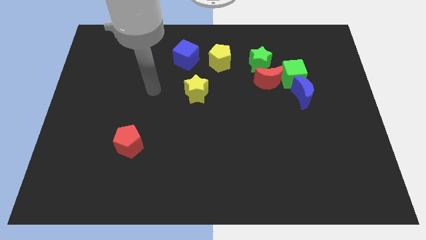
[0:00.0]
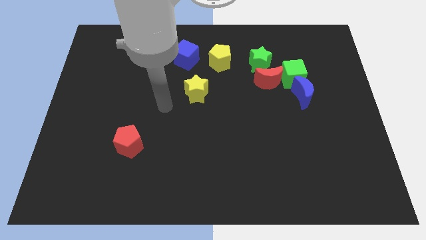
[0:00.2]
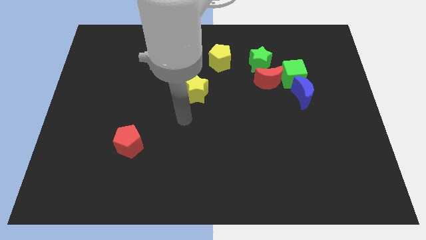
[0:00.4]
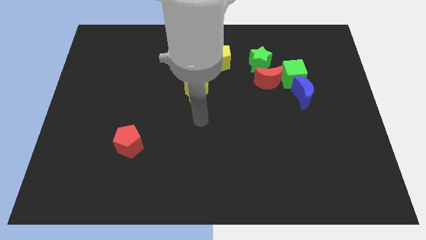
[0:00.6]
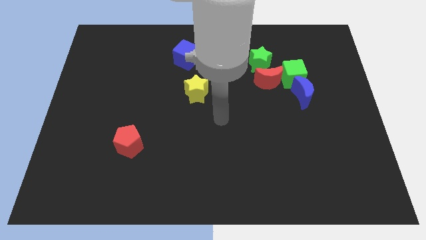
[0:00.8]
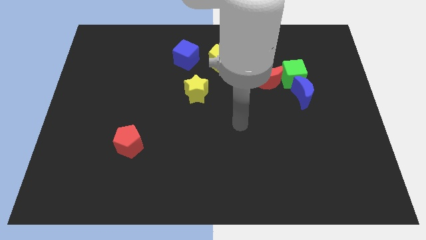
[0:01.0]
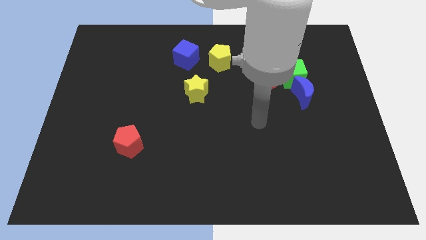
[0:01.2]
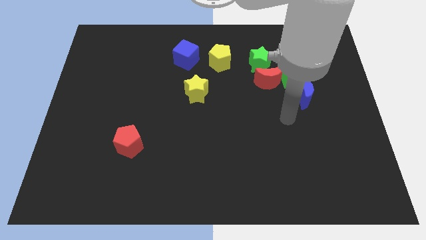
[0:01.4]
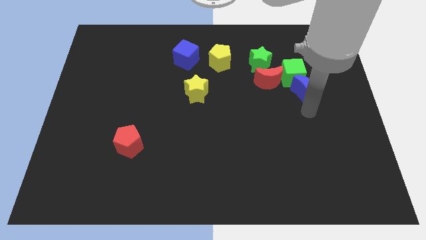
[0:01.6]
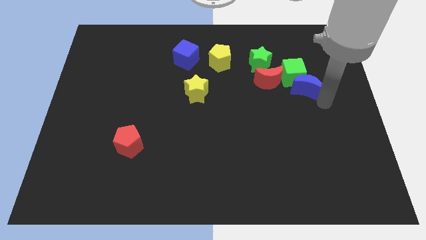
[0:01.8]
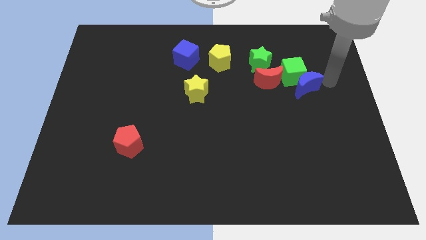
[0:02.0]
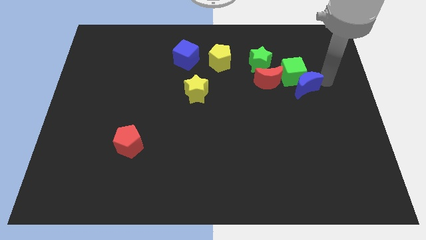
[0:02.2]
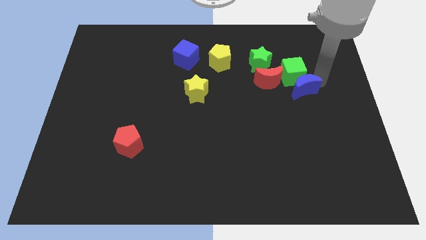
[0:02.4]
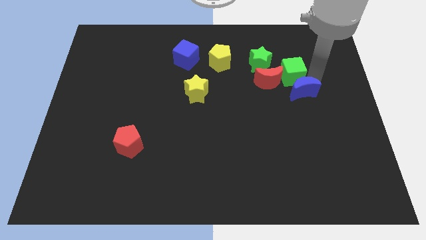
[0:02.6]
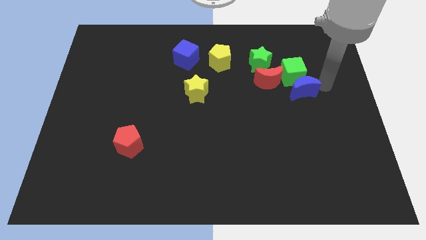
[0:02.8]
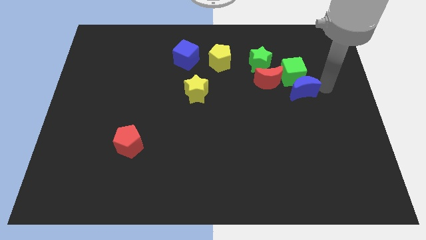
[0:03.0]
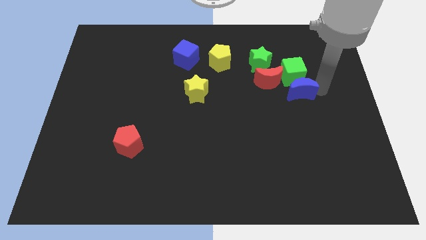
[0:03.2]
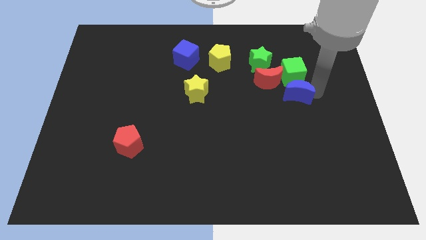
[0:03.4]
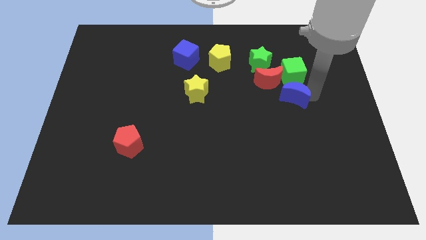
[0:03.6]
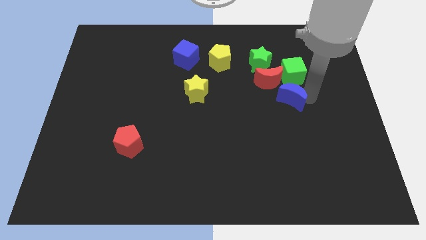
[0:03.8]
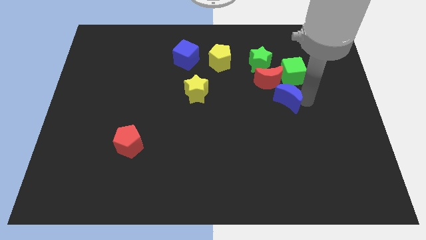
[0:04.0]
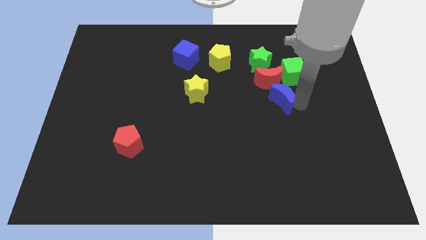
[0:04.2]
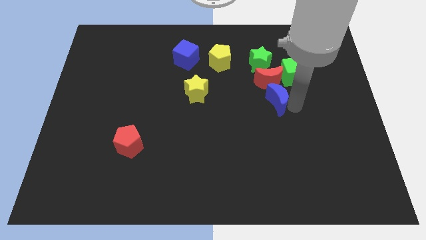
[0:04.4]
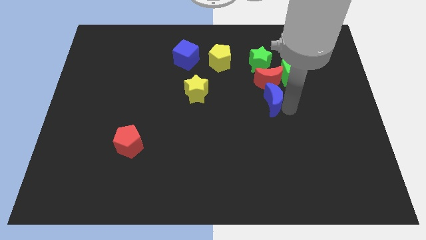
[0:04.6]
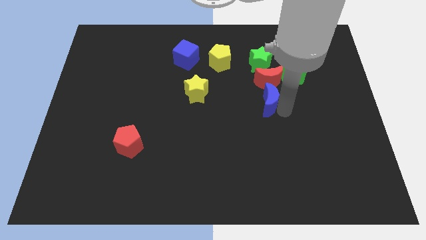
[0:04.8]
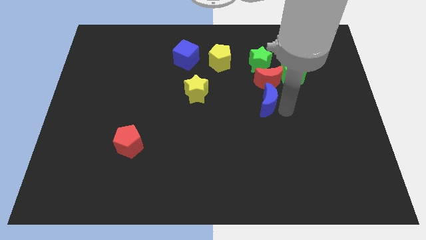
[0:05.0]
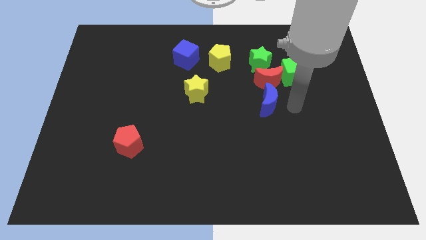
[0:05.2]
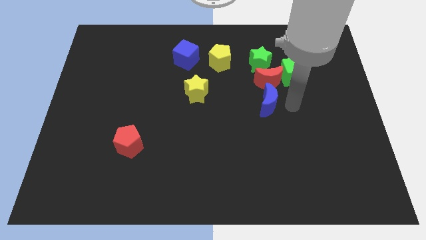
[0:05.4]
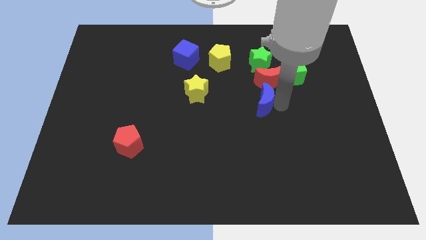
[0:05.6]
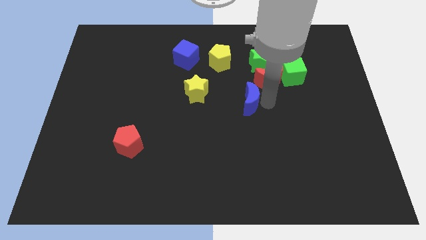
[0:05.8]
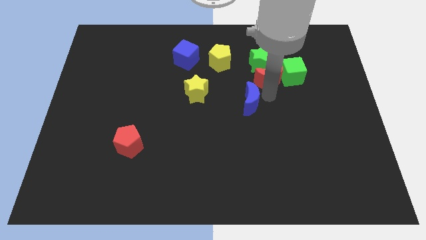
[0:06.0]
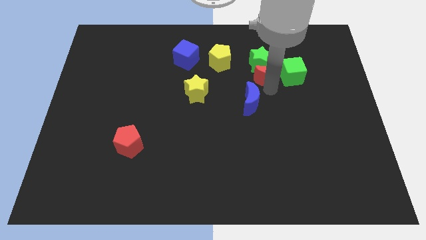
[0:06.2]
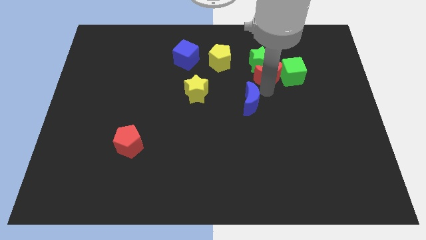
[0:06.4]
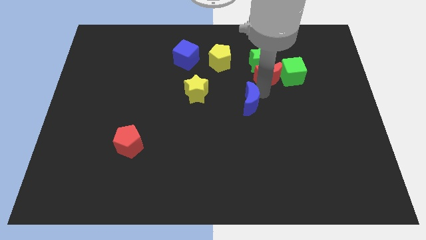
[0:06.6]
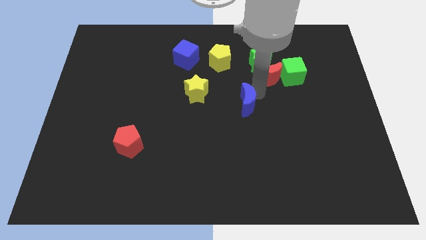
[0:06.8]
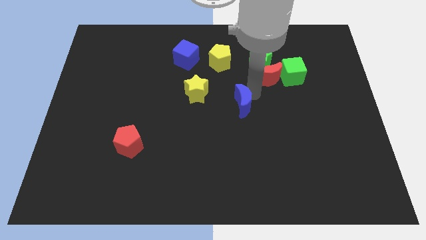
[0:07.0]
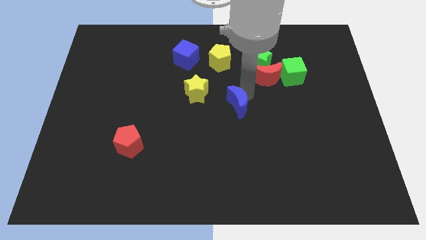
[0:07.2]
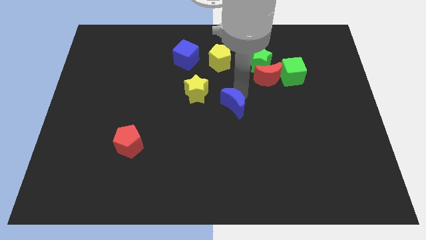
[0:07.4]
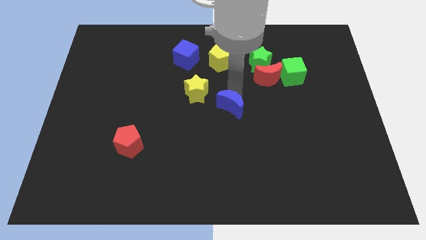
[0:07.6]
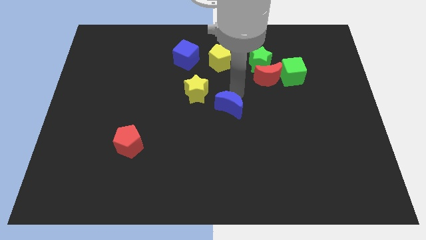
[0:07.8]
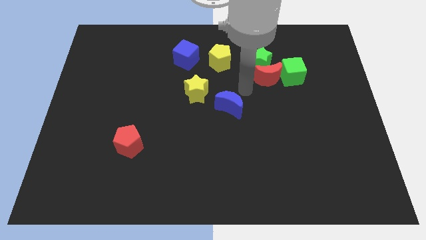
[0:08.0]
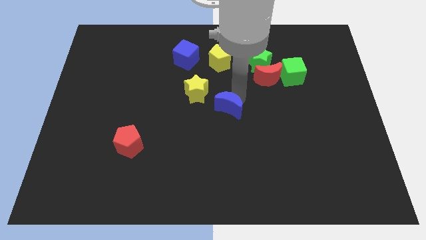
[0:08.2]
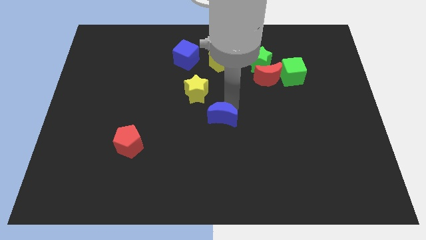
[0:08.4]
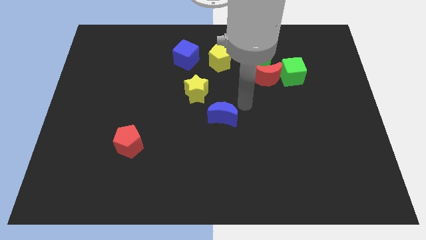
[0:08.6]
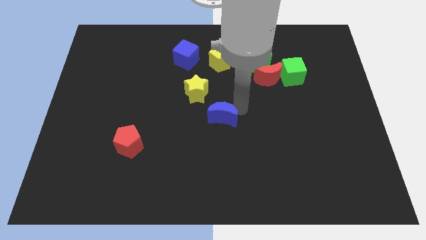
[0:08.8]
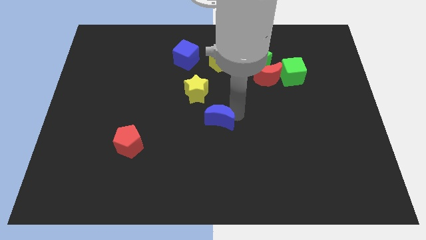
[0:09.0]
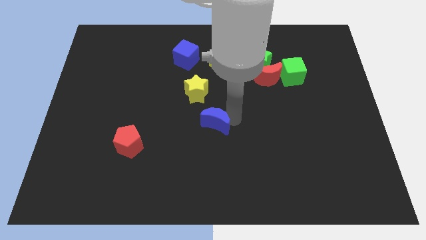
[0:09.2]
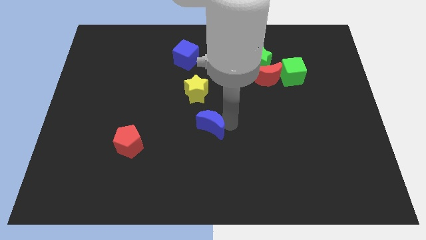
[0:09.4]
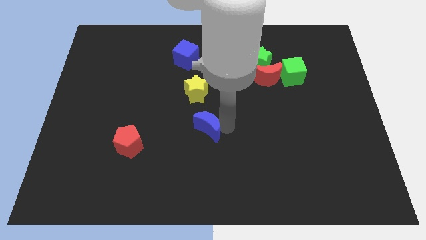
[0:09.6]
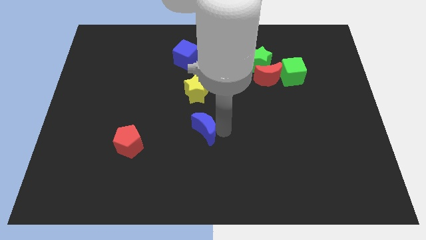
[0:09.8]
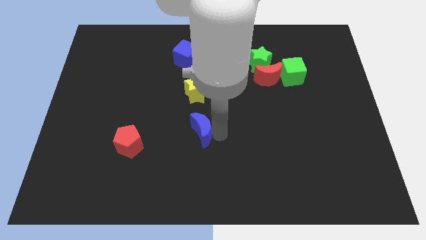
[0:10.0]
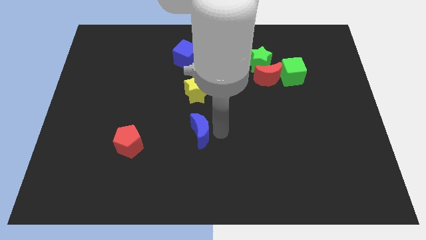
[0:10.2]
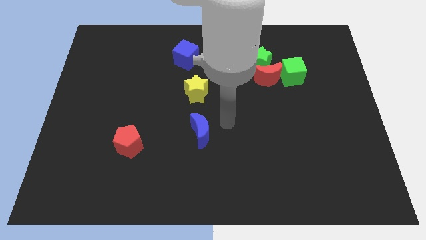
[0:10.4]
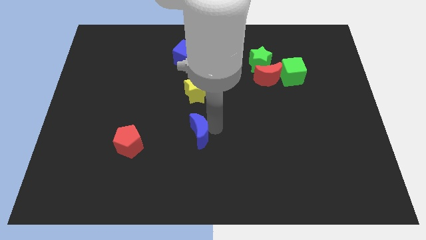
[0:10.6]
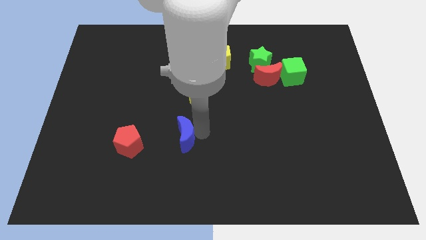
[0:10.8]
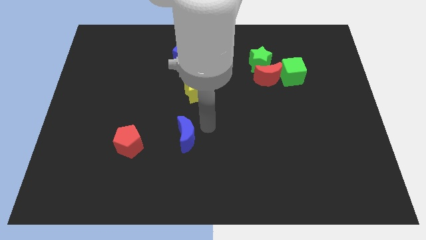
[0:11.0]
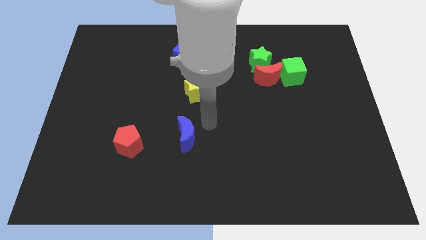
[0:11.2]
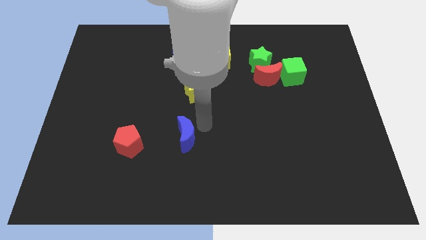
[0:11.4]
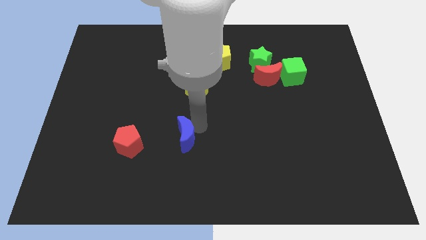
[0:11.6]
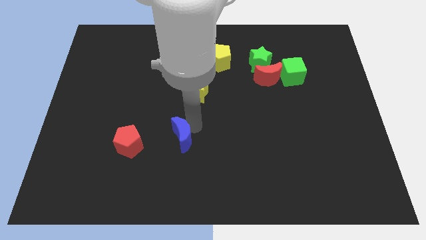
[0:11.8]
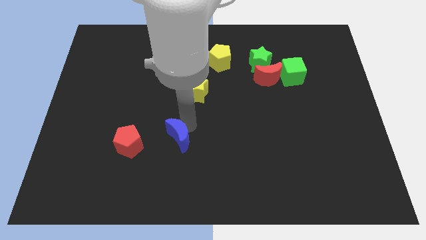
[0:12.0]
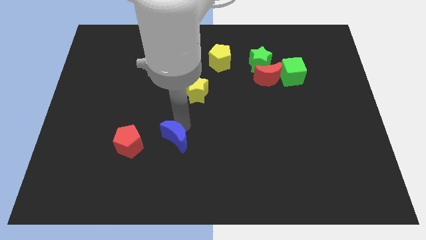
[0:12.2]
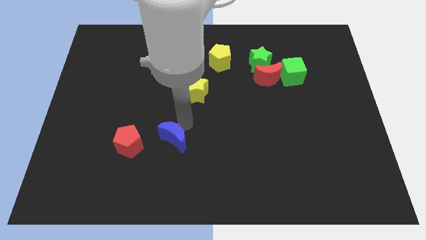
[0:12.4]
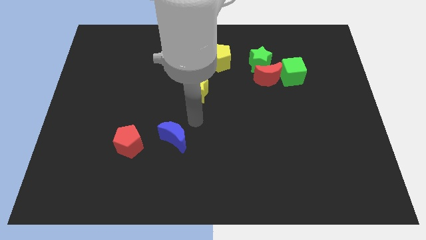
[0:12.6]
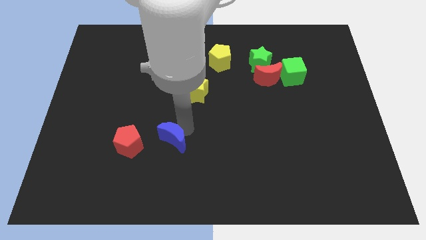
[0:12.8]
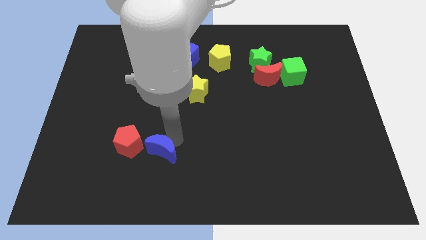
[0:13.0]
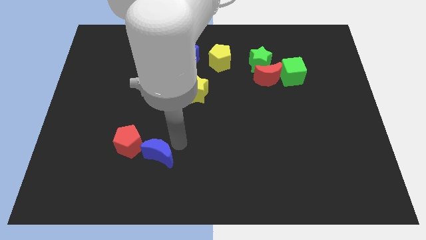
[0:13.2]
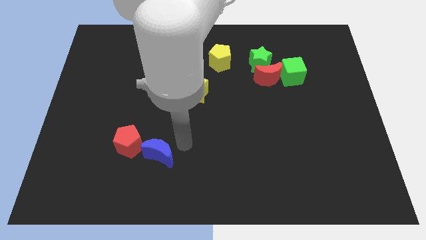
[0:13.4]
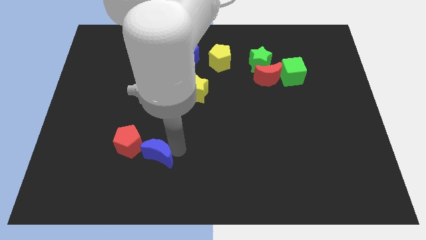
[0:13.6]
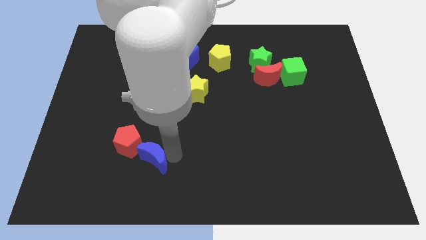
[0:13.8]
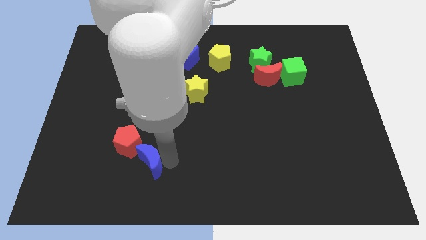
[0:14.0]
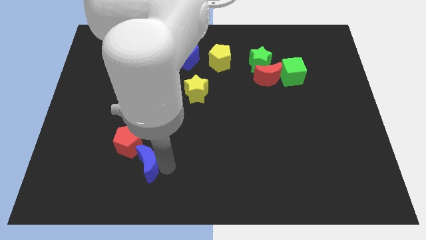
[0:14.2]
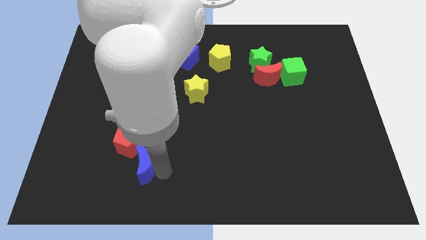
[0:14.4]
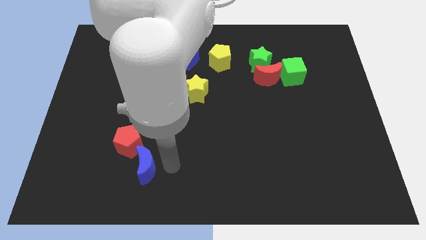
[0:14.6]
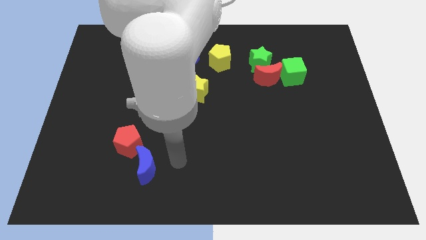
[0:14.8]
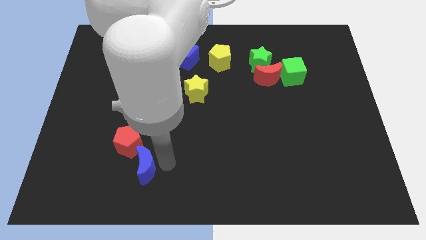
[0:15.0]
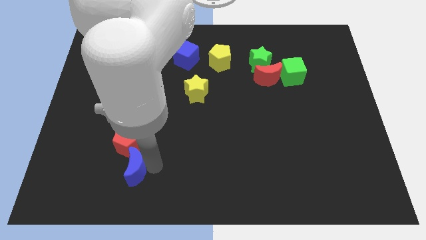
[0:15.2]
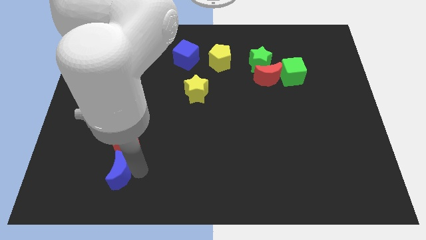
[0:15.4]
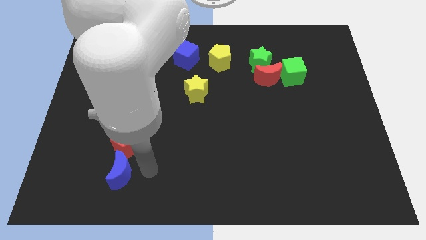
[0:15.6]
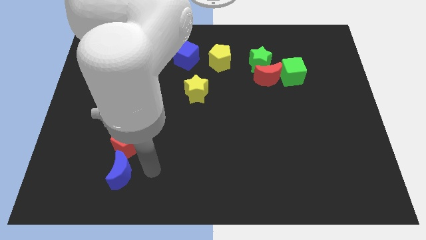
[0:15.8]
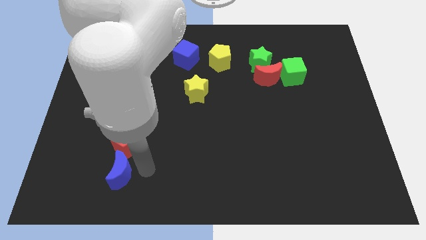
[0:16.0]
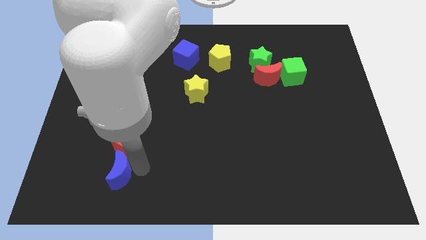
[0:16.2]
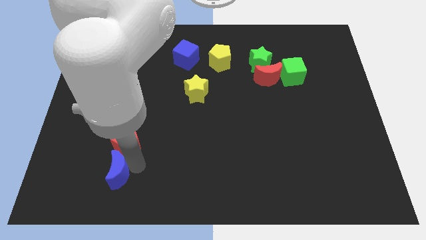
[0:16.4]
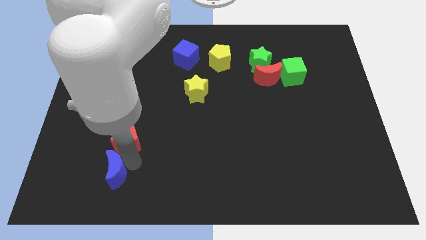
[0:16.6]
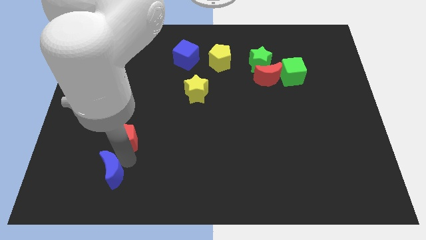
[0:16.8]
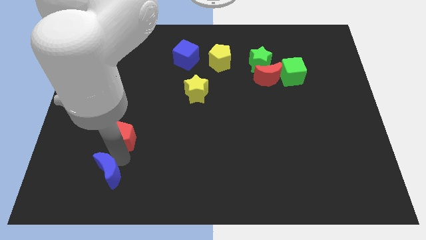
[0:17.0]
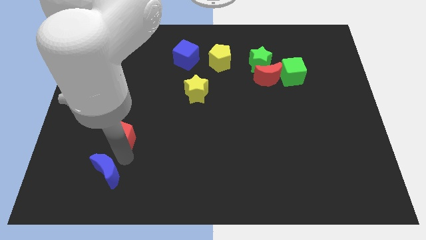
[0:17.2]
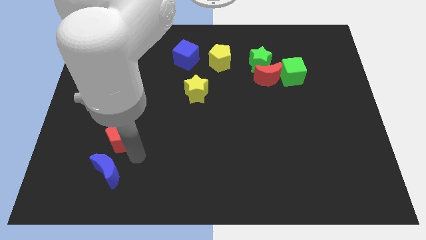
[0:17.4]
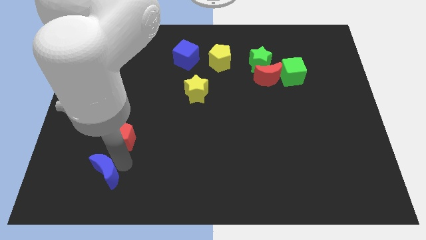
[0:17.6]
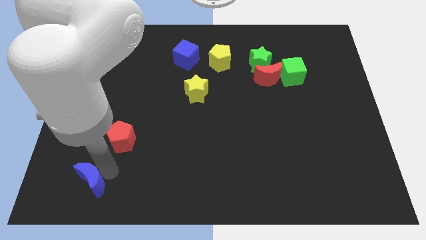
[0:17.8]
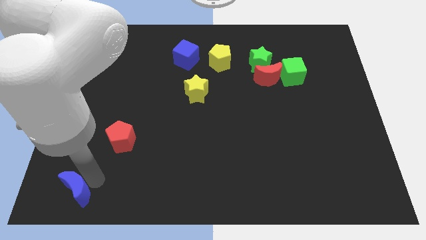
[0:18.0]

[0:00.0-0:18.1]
move the blue moon to the lower left corner
